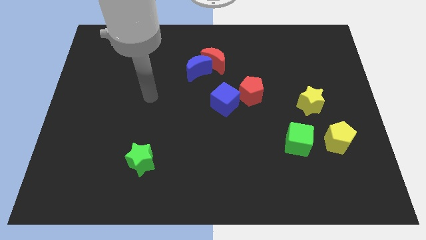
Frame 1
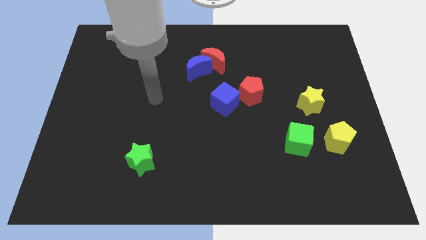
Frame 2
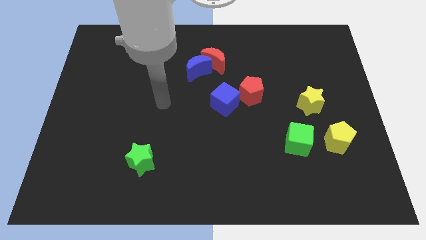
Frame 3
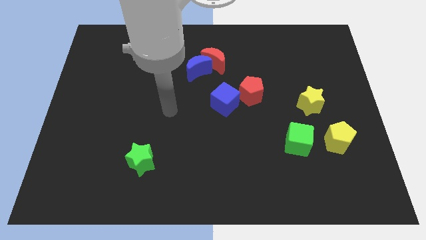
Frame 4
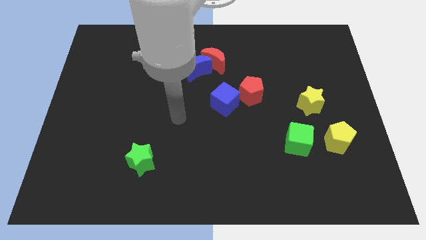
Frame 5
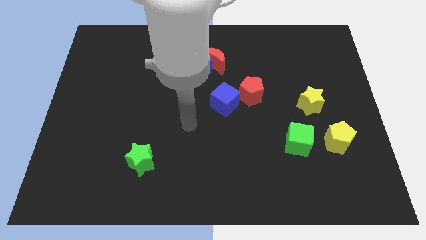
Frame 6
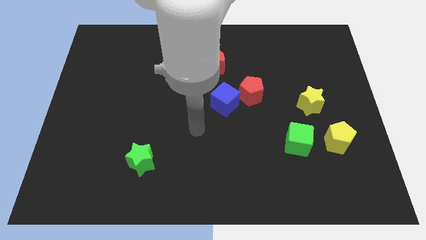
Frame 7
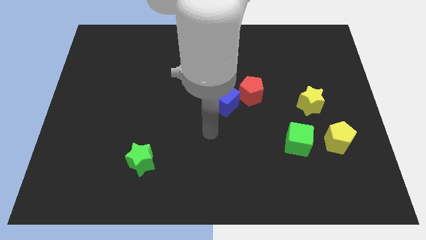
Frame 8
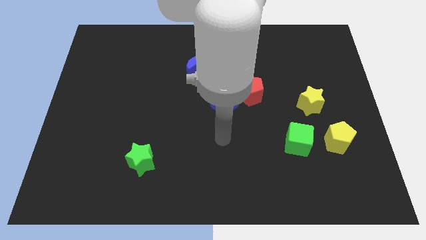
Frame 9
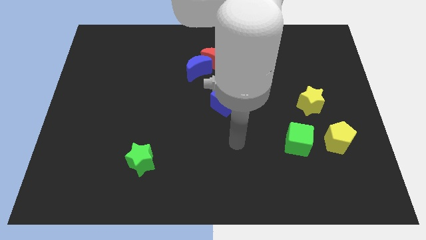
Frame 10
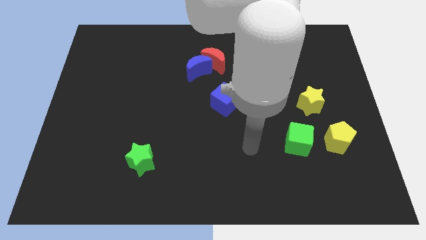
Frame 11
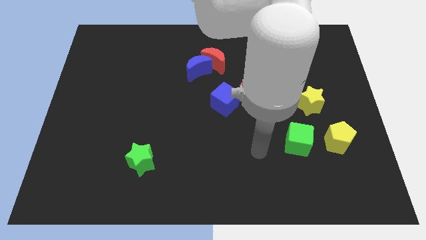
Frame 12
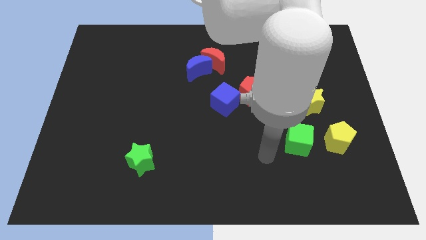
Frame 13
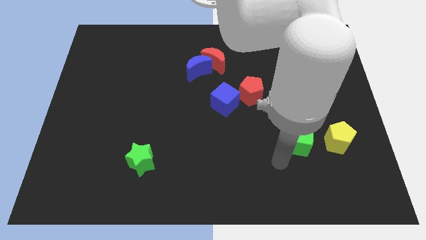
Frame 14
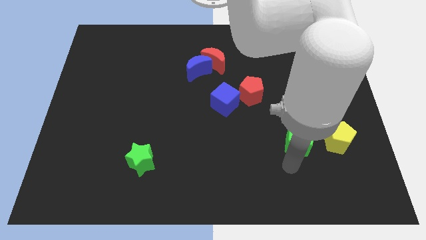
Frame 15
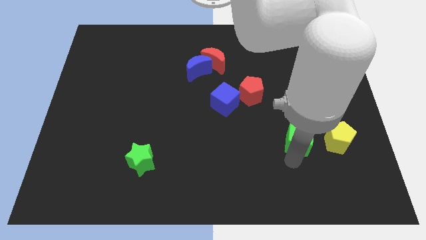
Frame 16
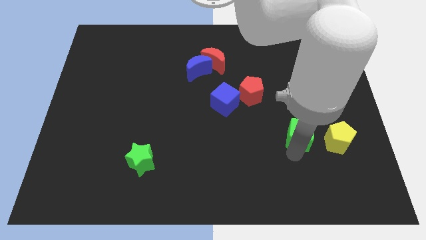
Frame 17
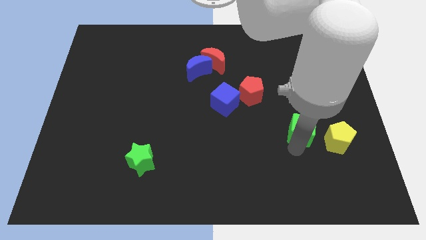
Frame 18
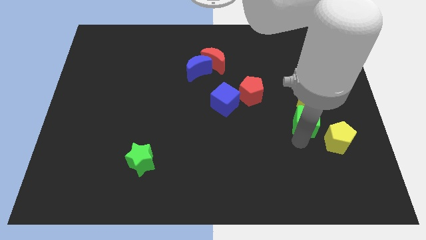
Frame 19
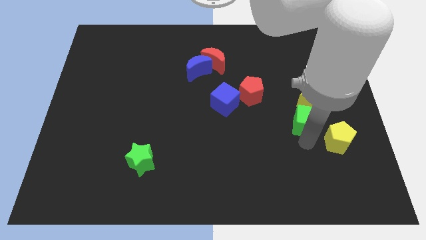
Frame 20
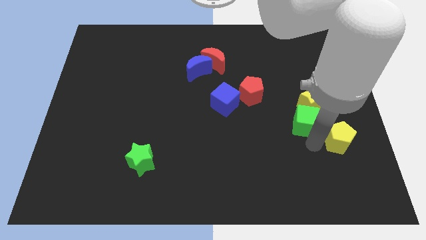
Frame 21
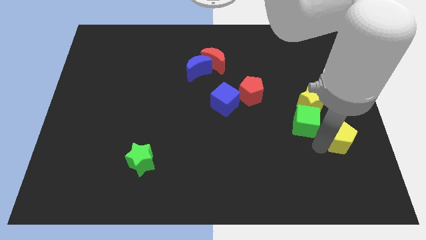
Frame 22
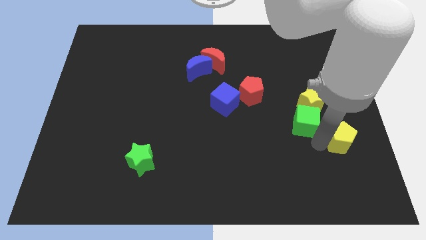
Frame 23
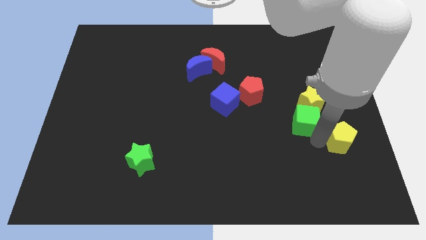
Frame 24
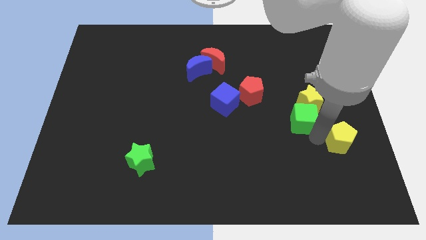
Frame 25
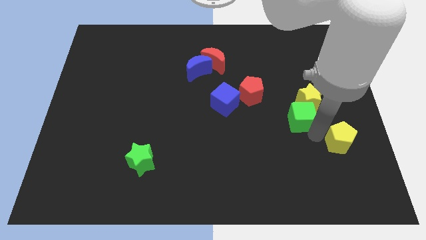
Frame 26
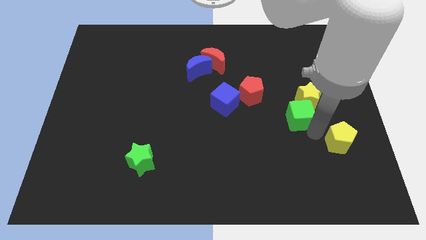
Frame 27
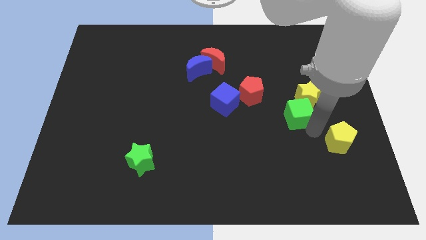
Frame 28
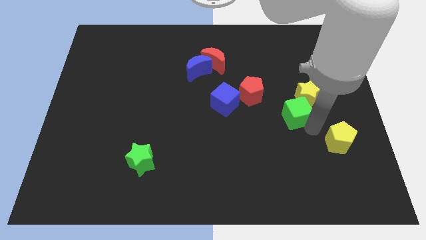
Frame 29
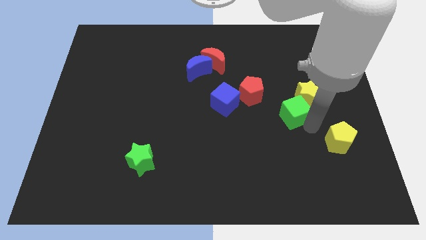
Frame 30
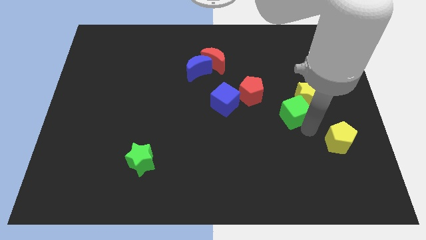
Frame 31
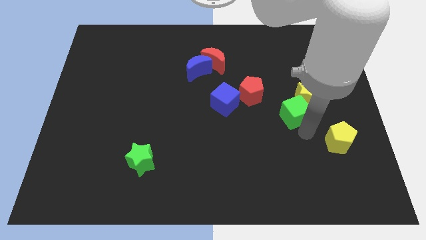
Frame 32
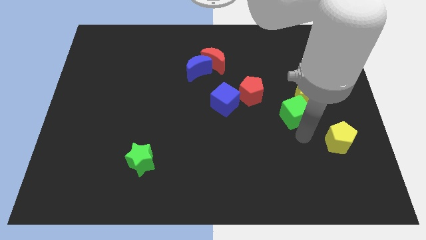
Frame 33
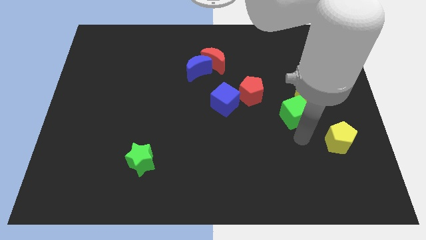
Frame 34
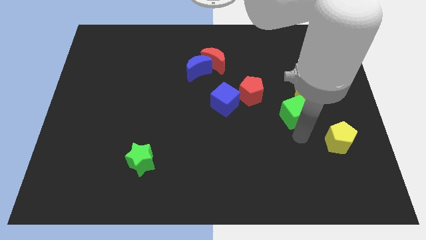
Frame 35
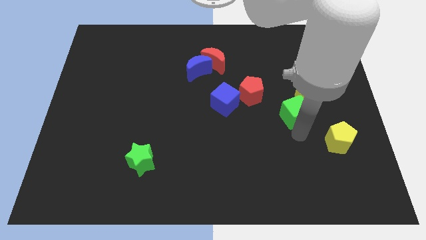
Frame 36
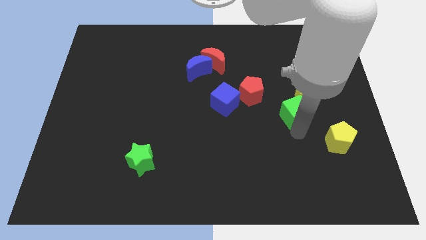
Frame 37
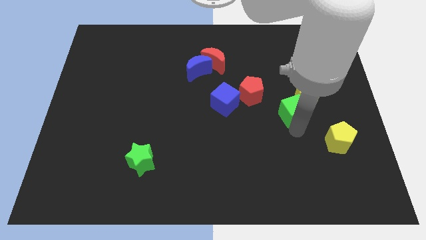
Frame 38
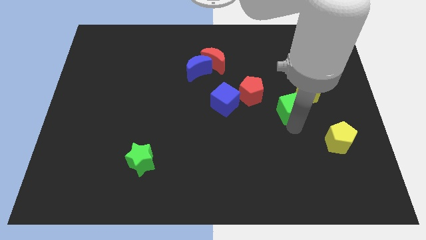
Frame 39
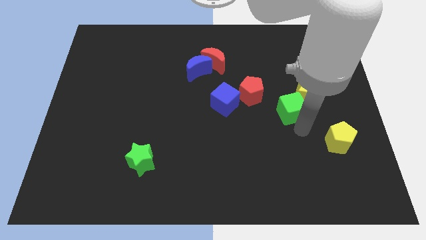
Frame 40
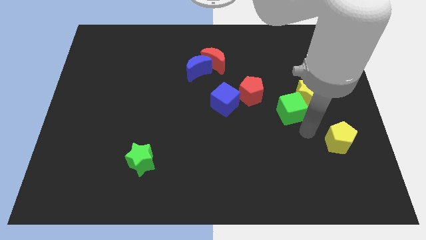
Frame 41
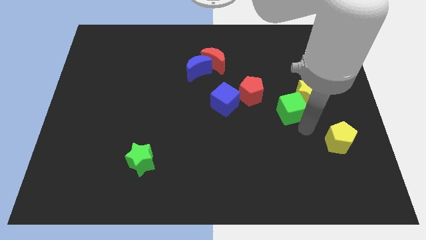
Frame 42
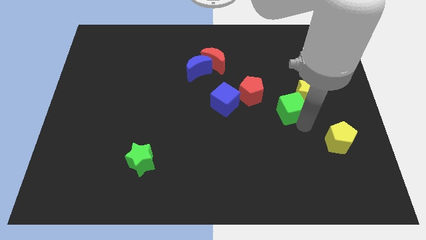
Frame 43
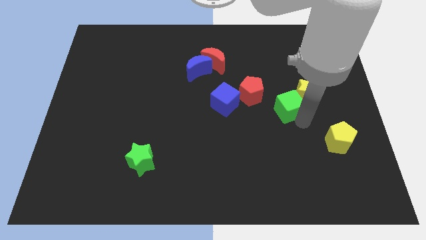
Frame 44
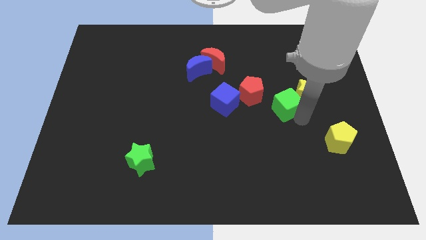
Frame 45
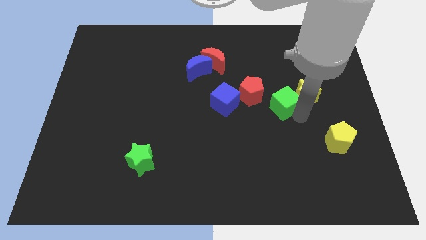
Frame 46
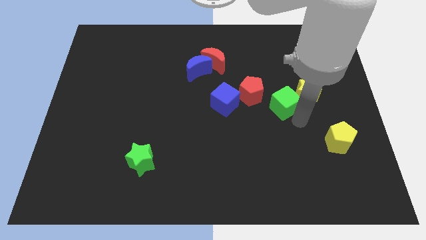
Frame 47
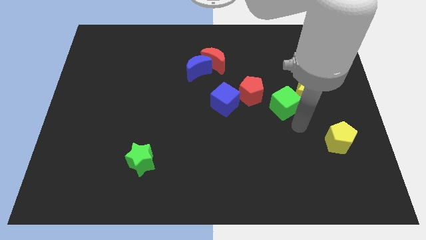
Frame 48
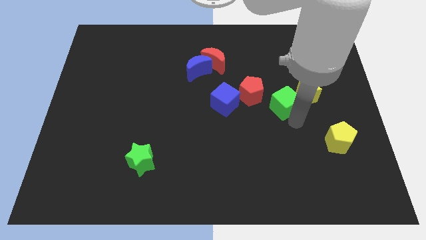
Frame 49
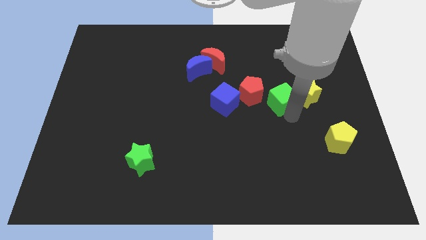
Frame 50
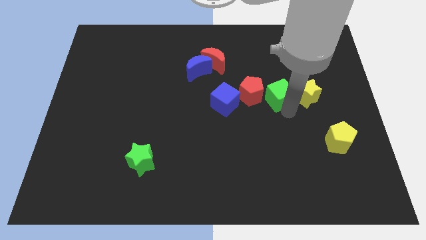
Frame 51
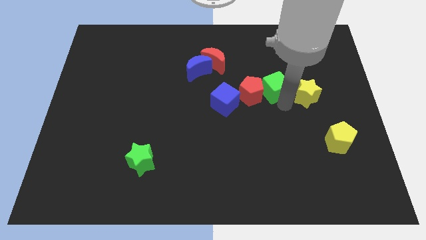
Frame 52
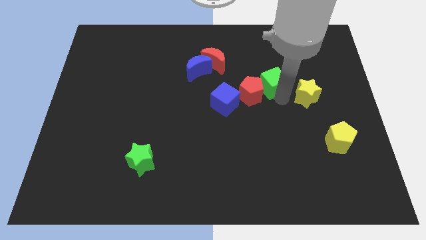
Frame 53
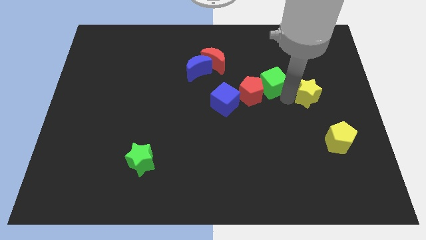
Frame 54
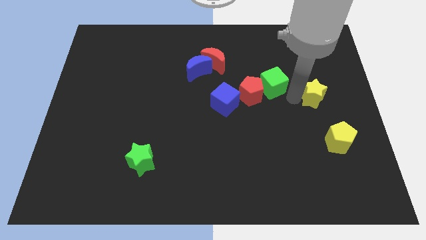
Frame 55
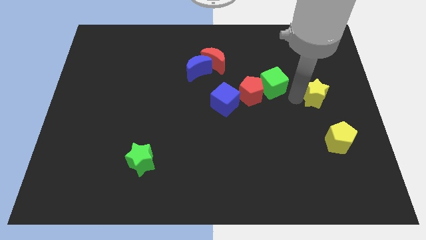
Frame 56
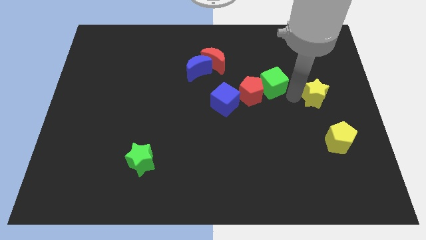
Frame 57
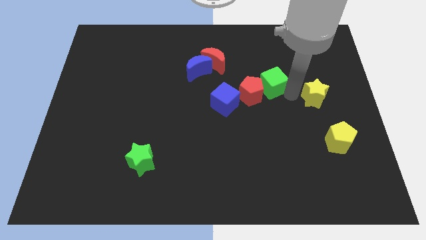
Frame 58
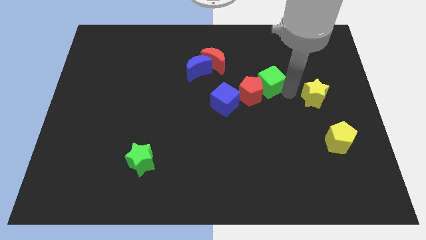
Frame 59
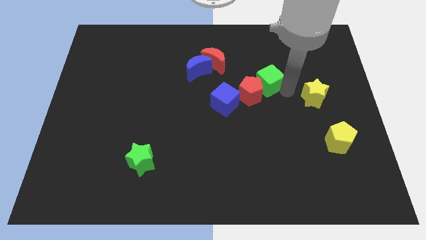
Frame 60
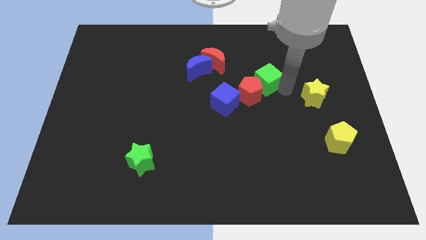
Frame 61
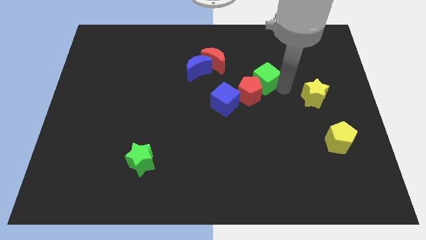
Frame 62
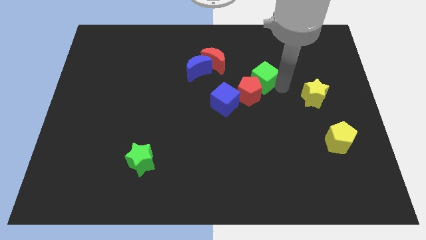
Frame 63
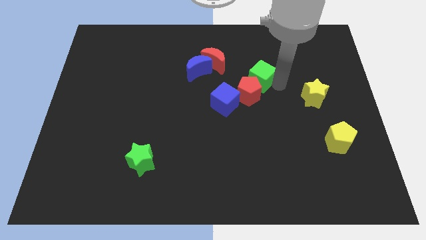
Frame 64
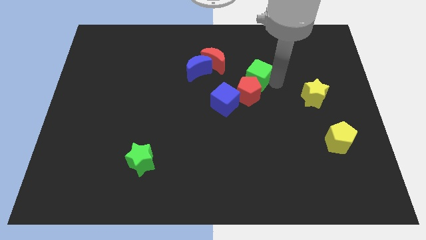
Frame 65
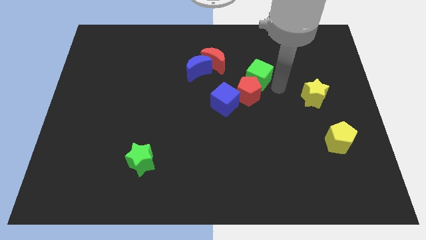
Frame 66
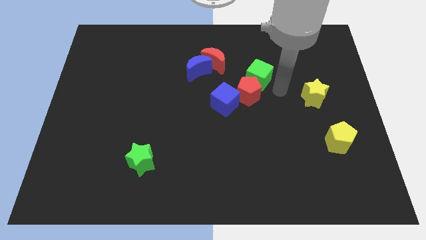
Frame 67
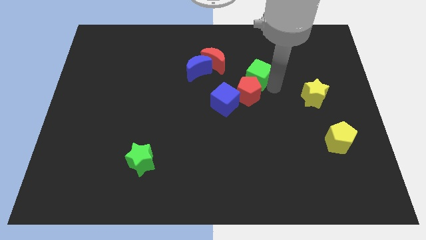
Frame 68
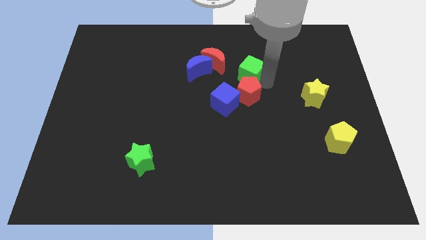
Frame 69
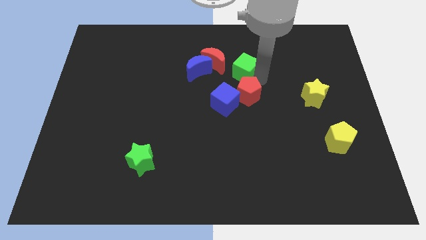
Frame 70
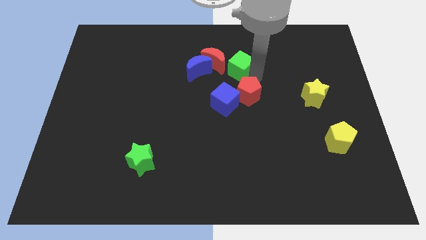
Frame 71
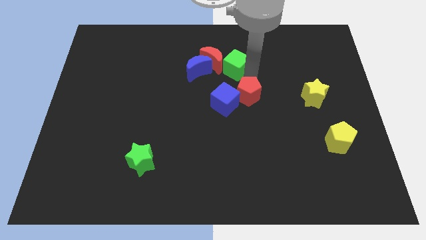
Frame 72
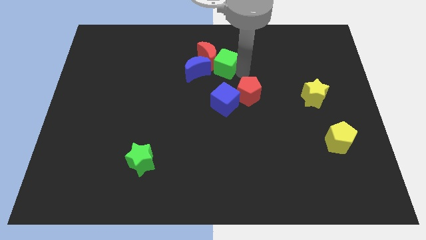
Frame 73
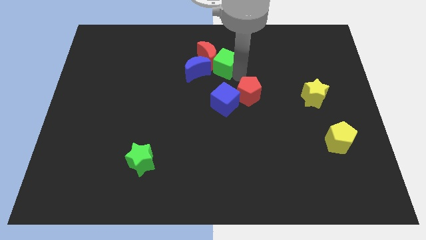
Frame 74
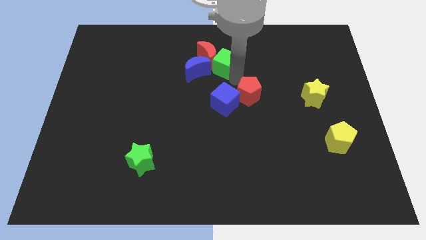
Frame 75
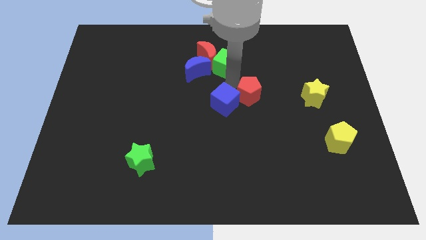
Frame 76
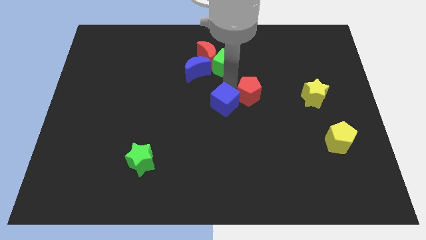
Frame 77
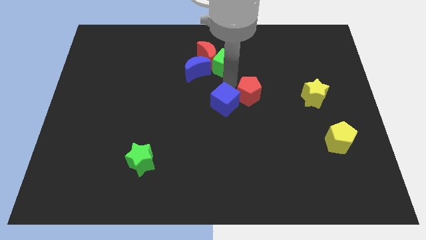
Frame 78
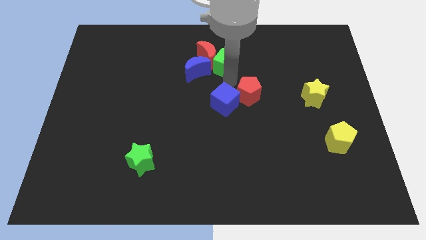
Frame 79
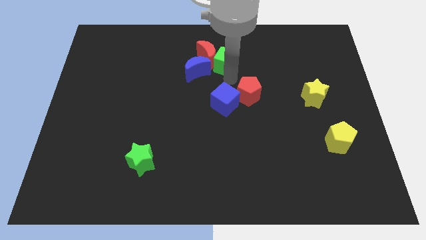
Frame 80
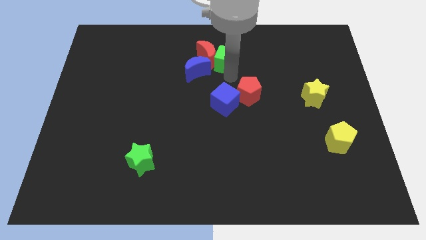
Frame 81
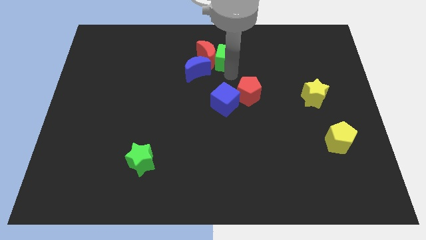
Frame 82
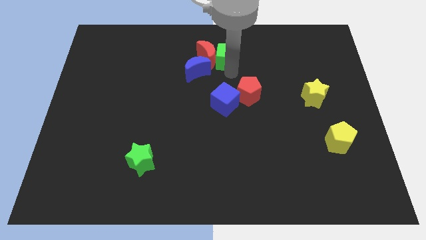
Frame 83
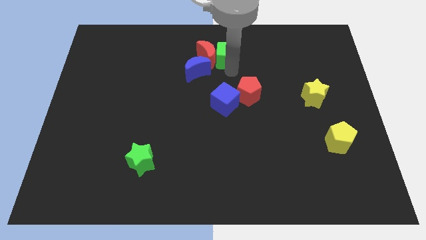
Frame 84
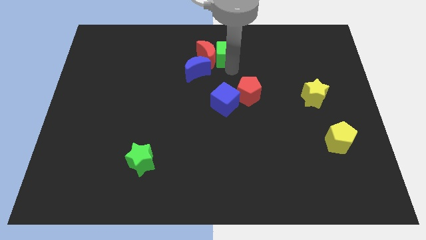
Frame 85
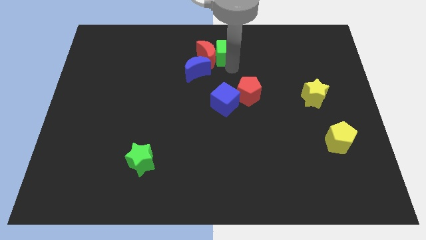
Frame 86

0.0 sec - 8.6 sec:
slide the green cube to the top side
